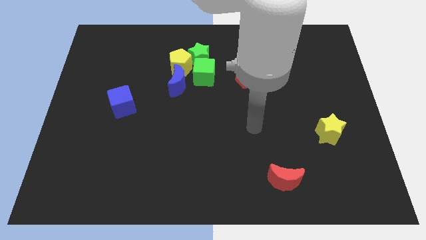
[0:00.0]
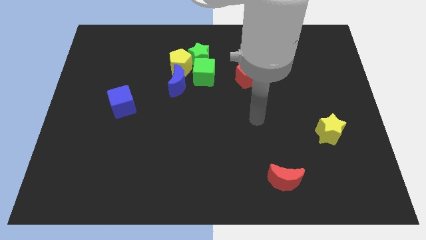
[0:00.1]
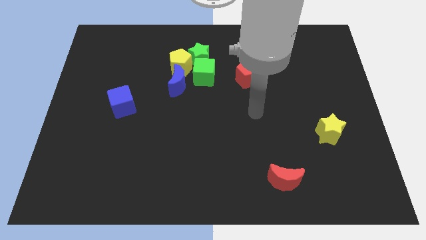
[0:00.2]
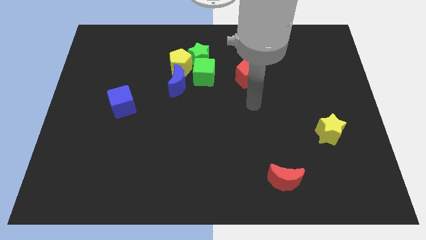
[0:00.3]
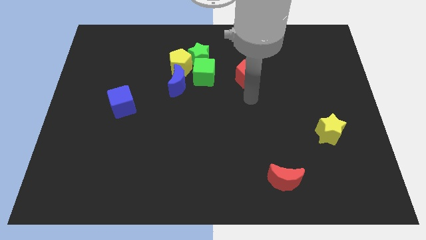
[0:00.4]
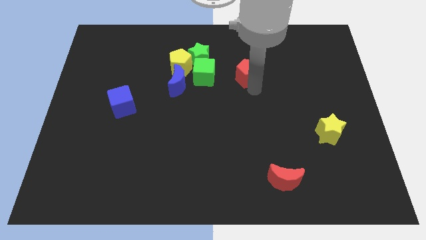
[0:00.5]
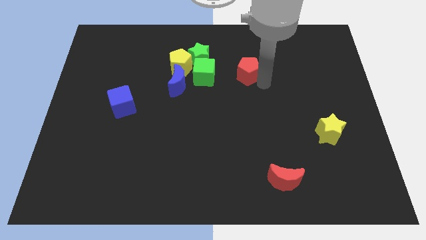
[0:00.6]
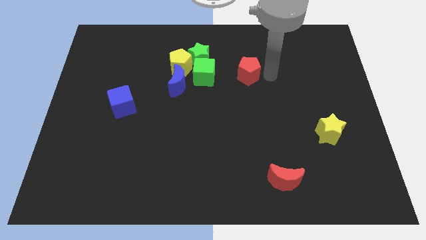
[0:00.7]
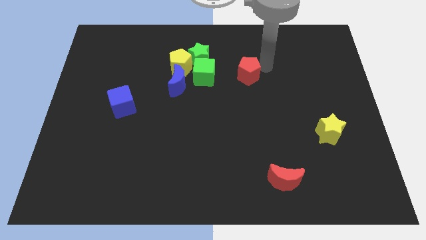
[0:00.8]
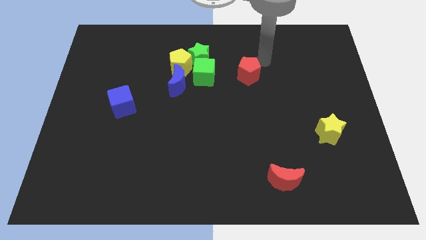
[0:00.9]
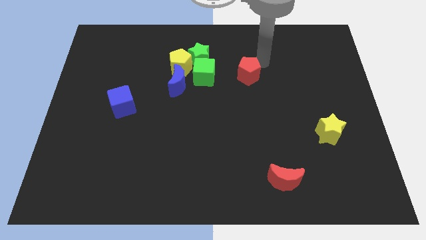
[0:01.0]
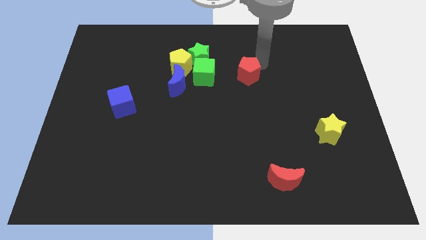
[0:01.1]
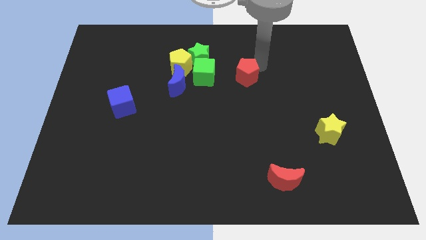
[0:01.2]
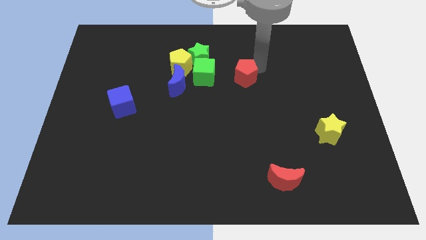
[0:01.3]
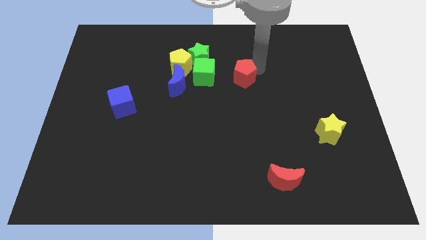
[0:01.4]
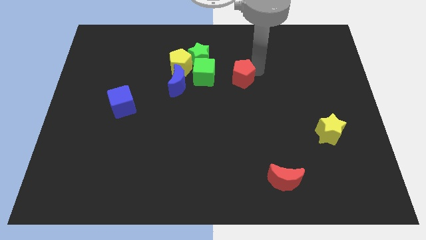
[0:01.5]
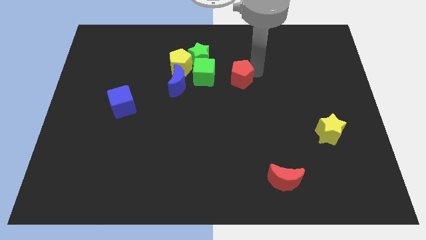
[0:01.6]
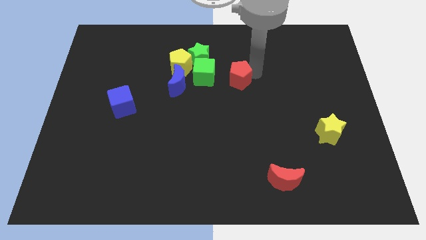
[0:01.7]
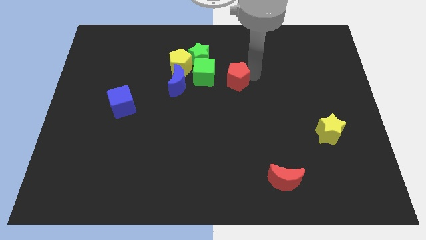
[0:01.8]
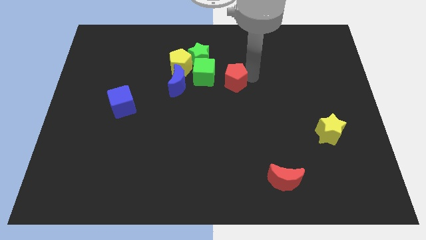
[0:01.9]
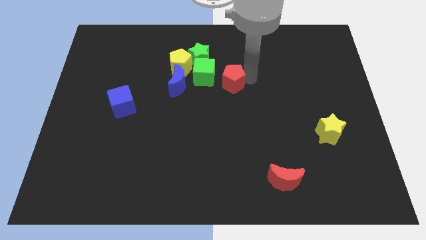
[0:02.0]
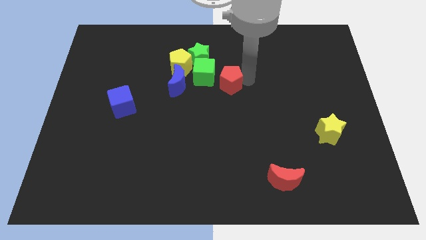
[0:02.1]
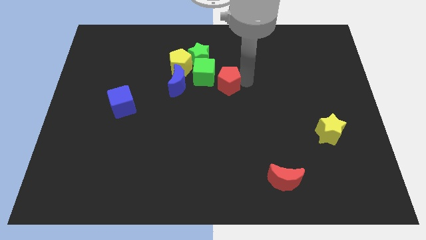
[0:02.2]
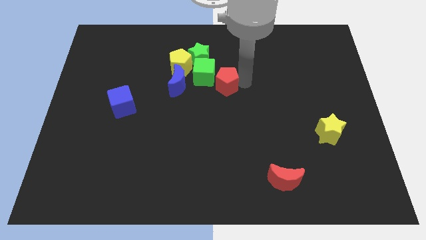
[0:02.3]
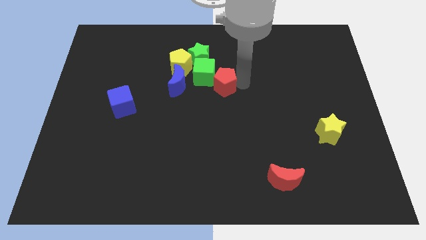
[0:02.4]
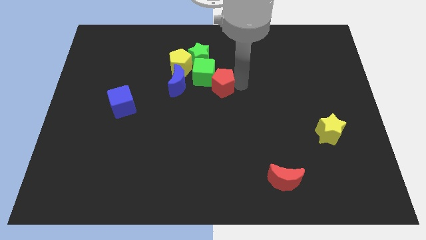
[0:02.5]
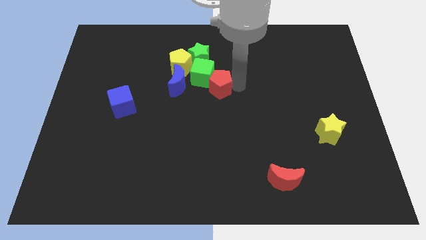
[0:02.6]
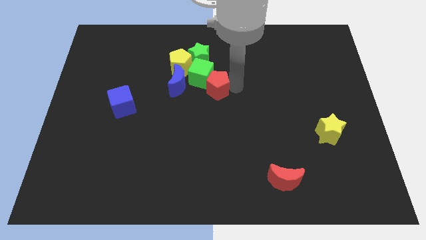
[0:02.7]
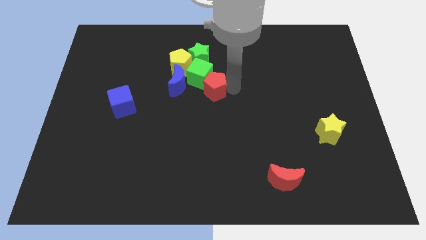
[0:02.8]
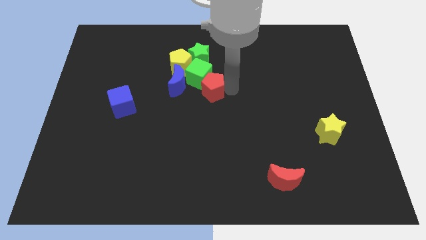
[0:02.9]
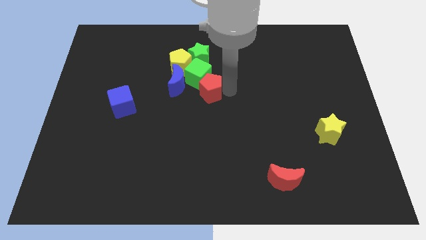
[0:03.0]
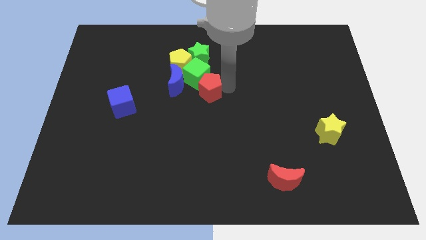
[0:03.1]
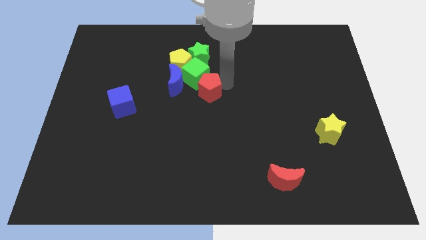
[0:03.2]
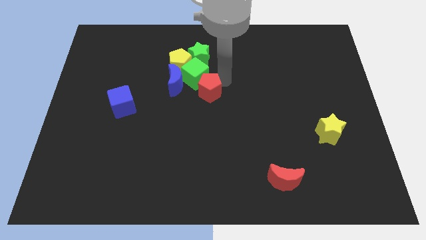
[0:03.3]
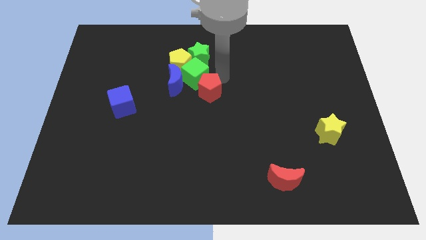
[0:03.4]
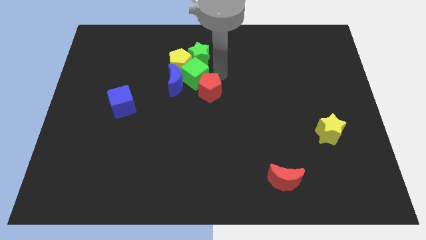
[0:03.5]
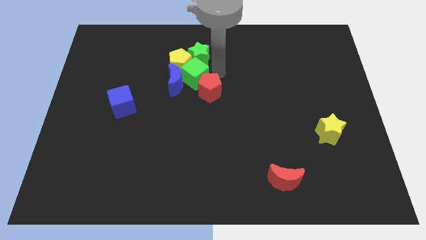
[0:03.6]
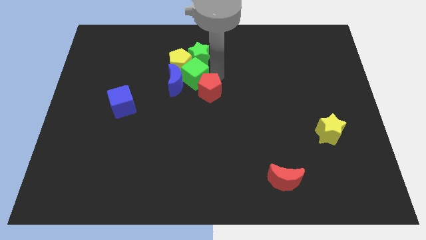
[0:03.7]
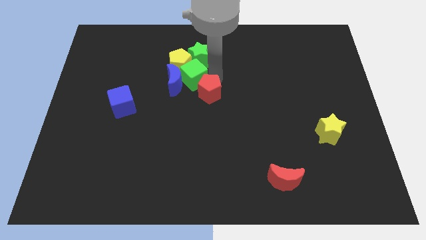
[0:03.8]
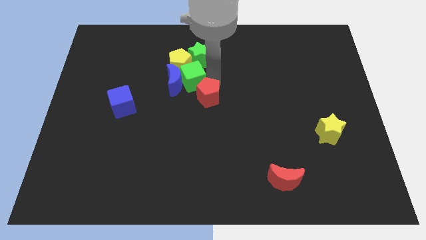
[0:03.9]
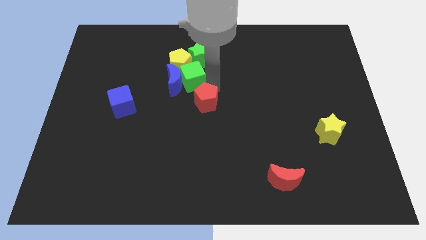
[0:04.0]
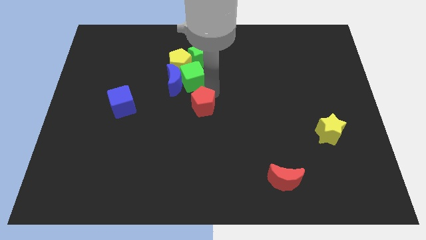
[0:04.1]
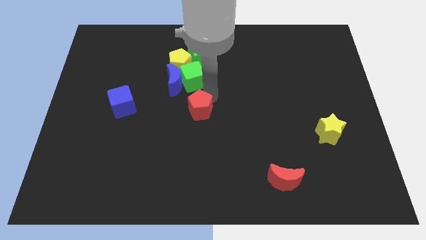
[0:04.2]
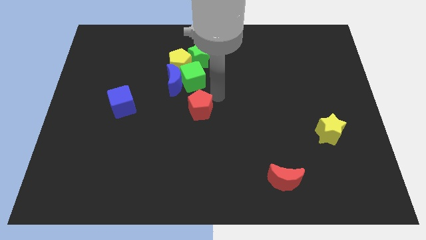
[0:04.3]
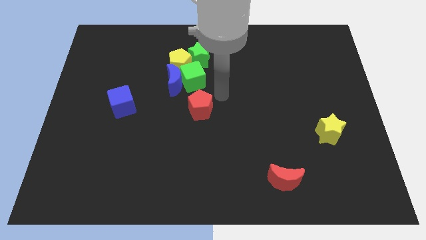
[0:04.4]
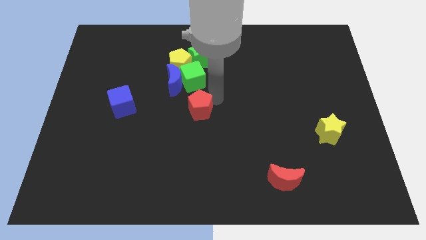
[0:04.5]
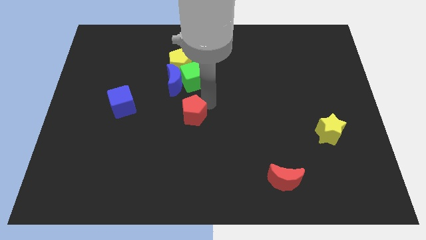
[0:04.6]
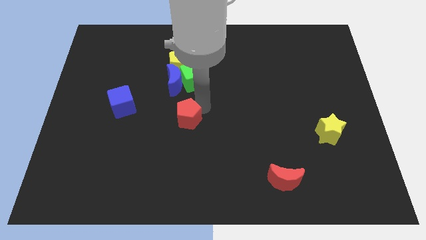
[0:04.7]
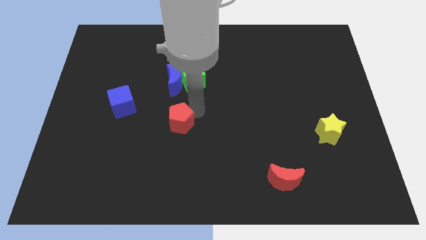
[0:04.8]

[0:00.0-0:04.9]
slide the red pentagon downwards and then to the left

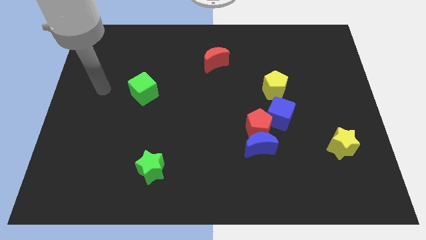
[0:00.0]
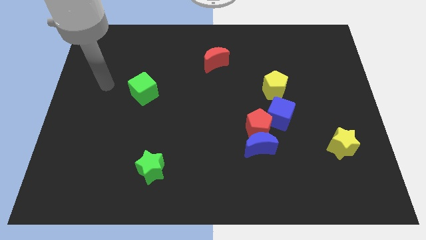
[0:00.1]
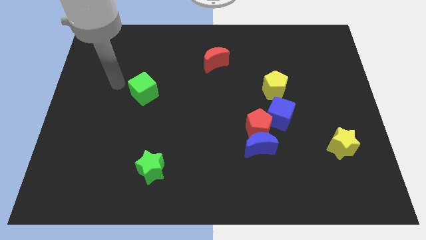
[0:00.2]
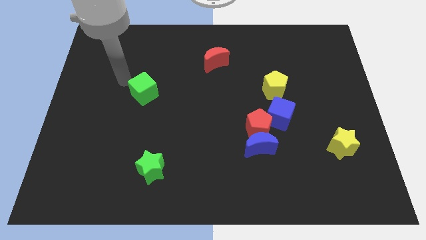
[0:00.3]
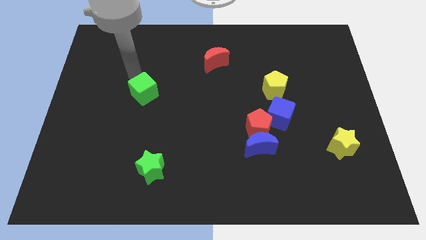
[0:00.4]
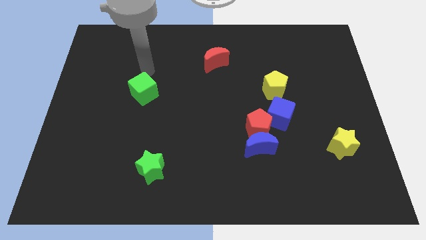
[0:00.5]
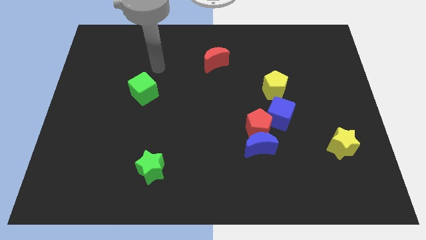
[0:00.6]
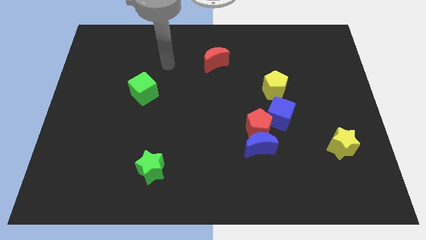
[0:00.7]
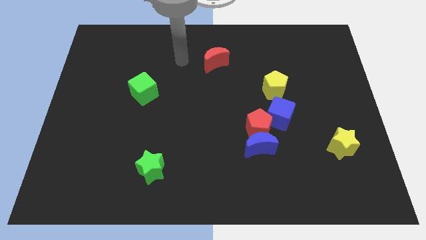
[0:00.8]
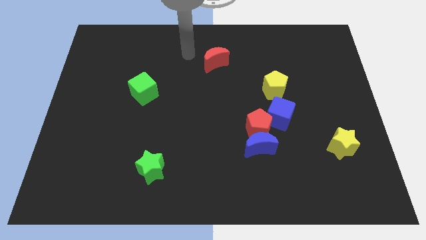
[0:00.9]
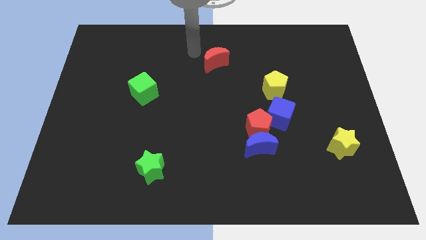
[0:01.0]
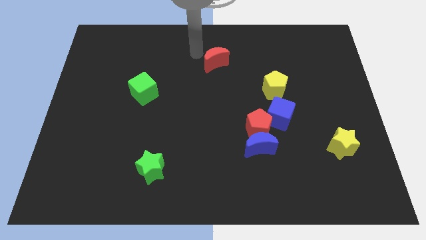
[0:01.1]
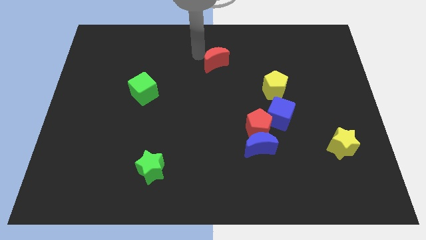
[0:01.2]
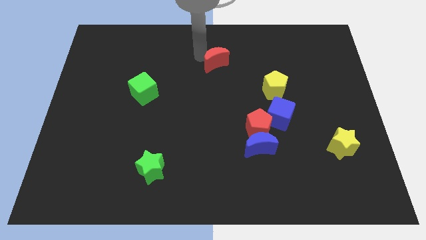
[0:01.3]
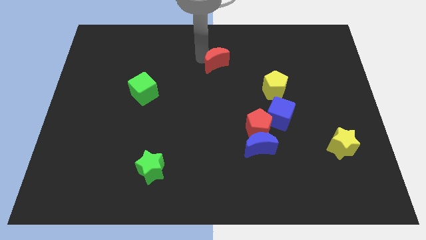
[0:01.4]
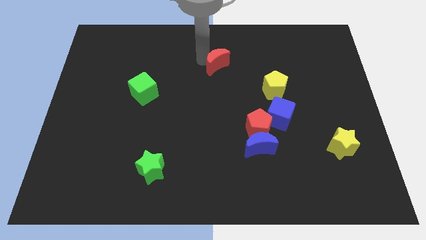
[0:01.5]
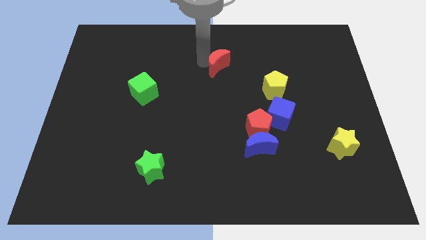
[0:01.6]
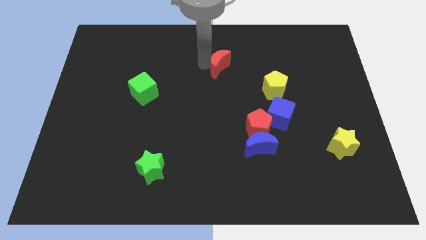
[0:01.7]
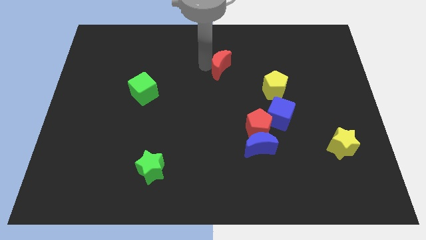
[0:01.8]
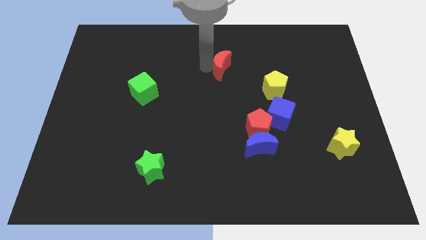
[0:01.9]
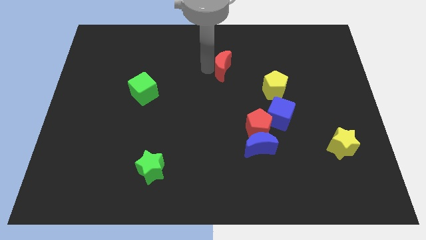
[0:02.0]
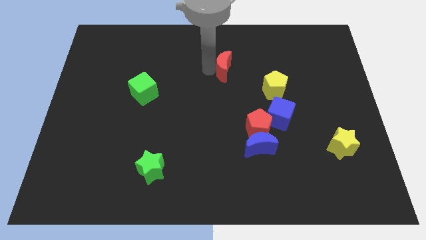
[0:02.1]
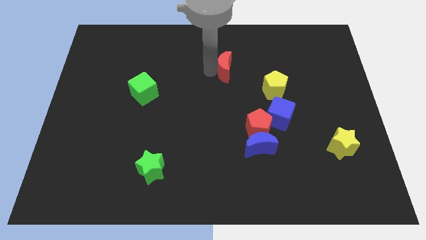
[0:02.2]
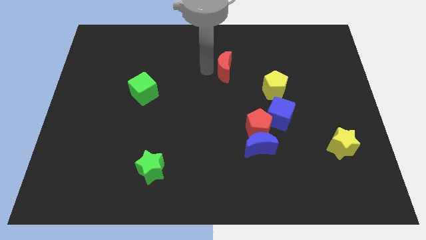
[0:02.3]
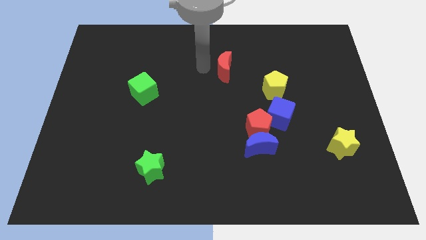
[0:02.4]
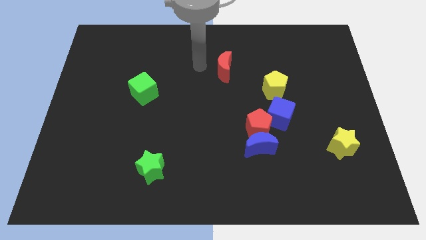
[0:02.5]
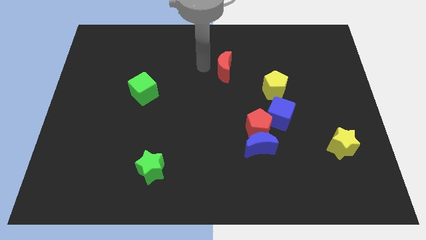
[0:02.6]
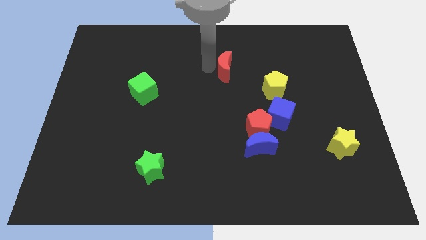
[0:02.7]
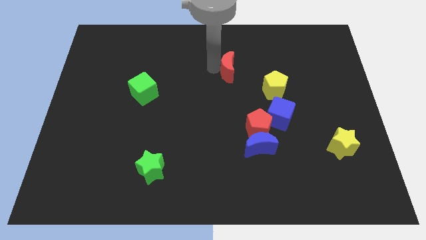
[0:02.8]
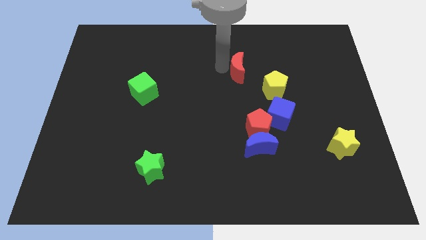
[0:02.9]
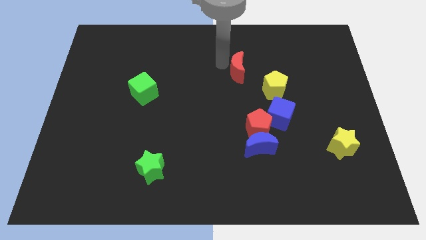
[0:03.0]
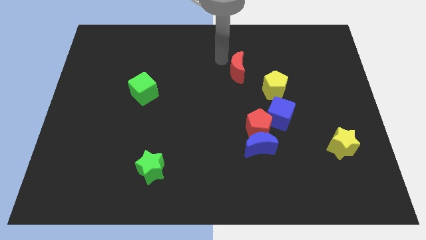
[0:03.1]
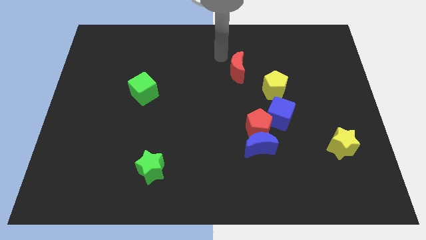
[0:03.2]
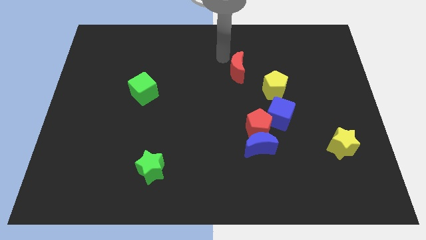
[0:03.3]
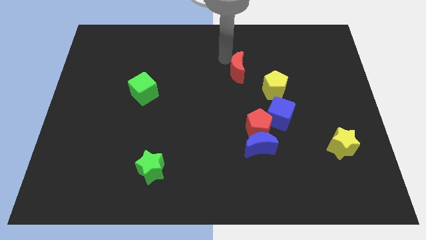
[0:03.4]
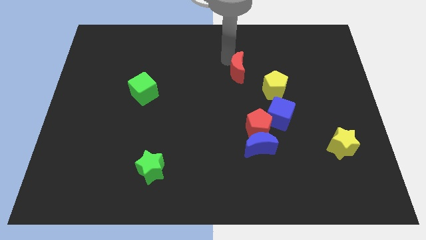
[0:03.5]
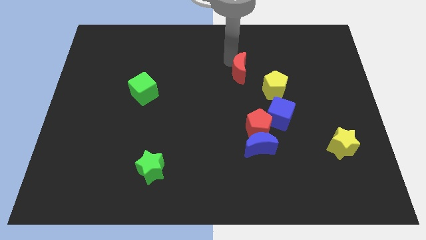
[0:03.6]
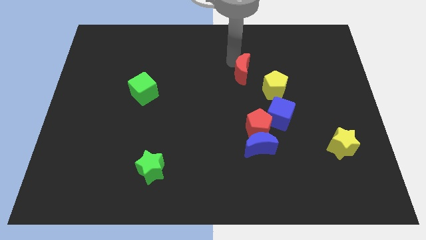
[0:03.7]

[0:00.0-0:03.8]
push the red moon somewhat downwards and to the right
